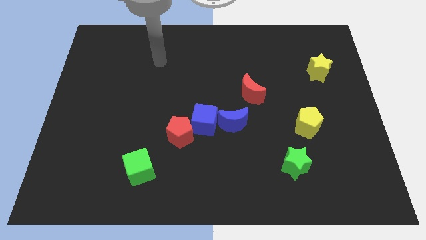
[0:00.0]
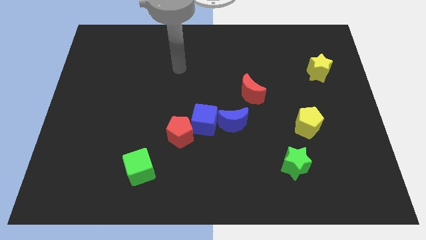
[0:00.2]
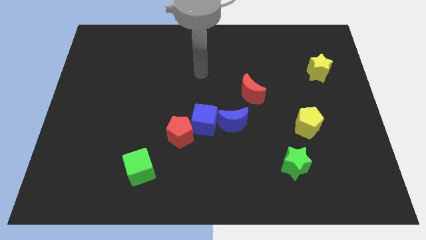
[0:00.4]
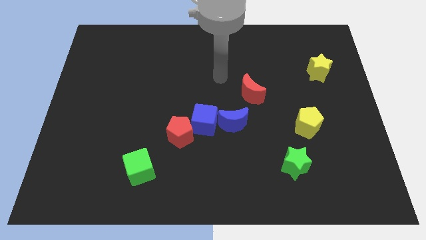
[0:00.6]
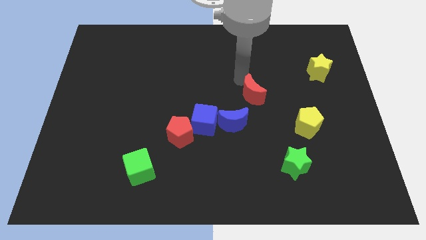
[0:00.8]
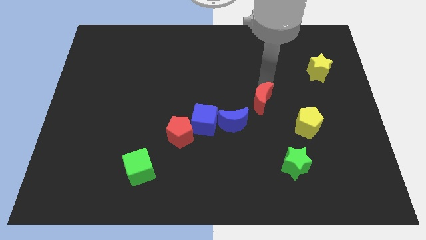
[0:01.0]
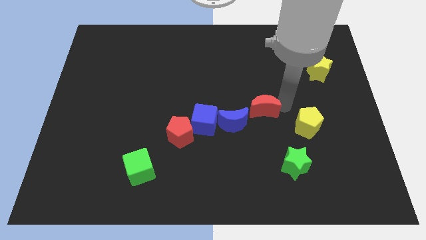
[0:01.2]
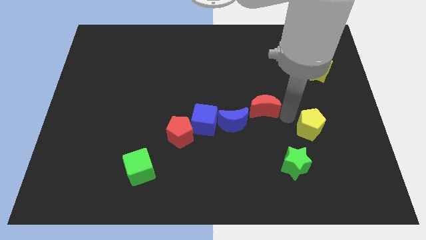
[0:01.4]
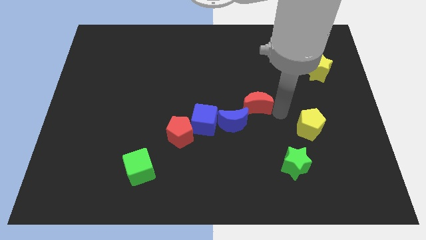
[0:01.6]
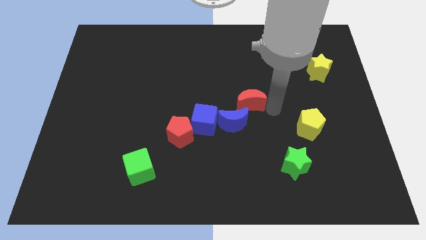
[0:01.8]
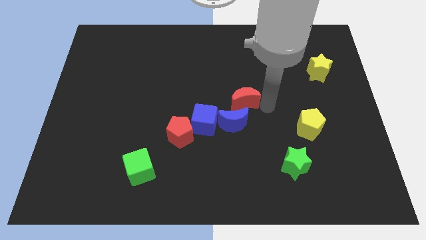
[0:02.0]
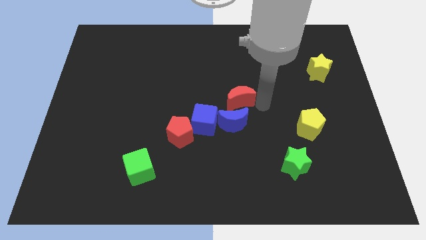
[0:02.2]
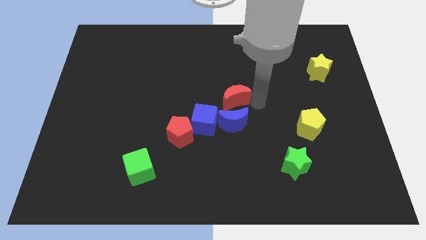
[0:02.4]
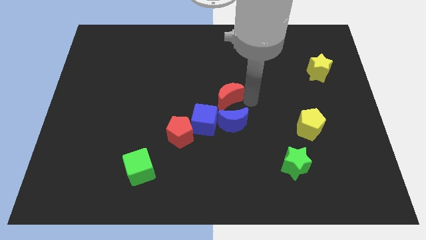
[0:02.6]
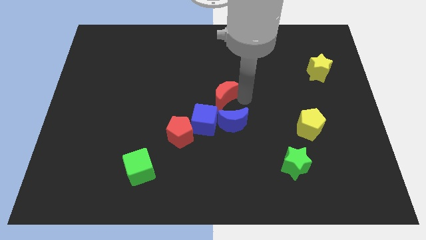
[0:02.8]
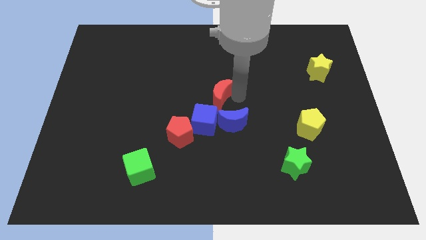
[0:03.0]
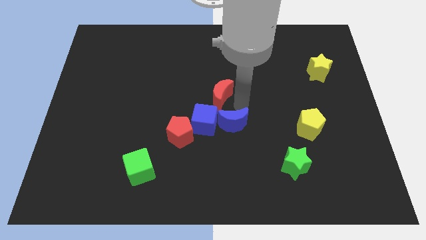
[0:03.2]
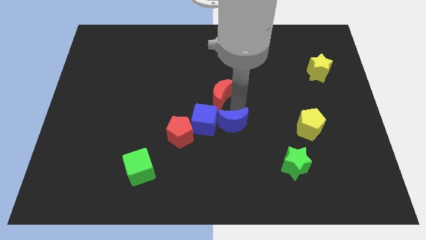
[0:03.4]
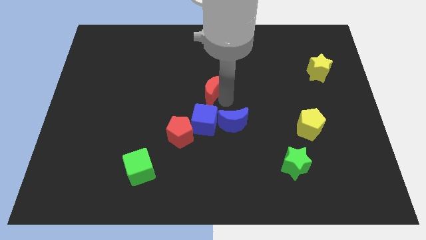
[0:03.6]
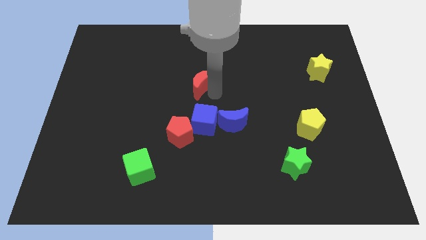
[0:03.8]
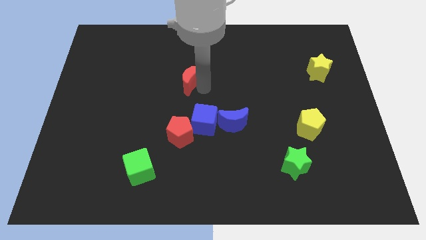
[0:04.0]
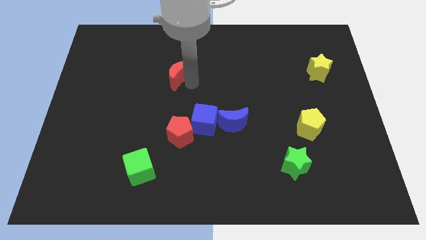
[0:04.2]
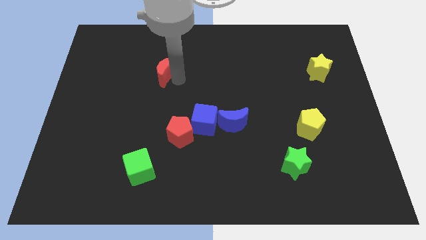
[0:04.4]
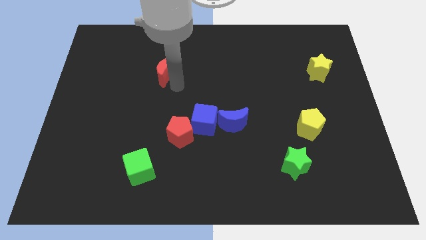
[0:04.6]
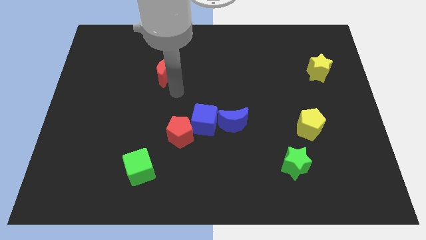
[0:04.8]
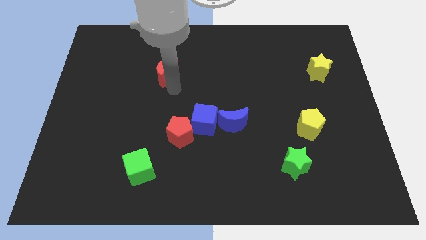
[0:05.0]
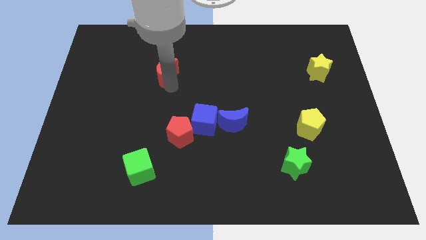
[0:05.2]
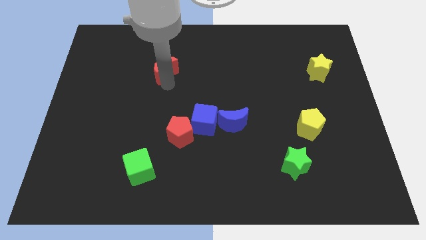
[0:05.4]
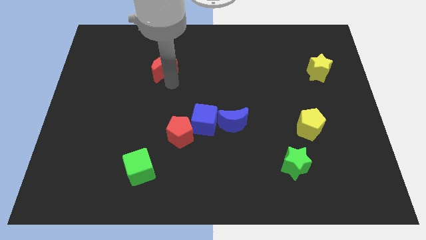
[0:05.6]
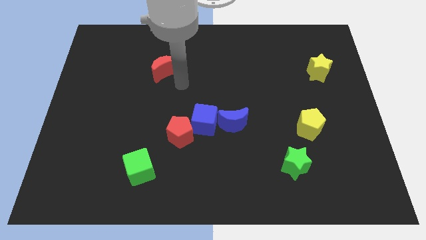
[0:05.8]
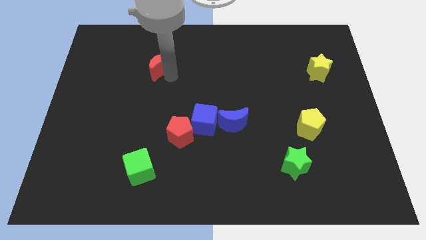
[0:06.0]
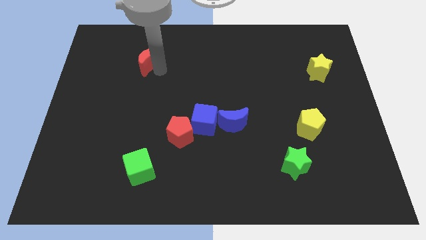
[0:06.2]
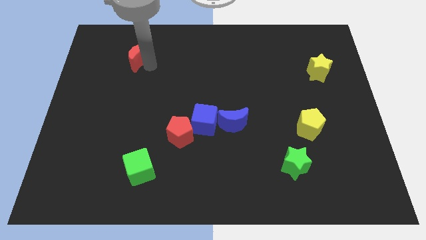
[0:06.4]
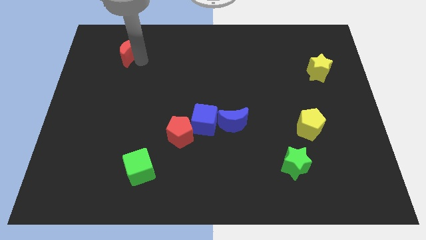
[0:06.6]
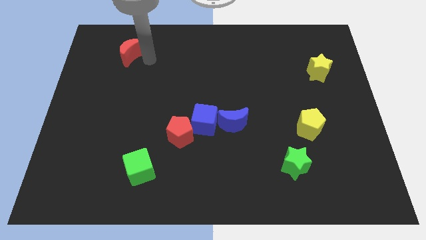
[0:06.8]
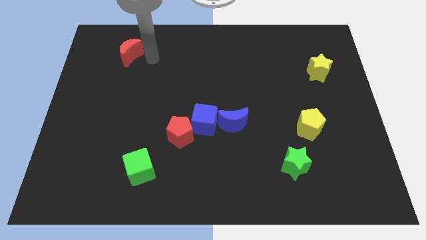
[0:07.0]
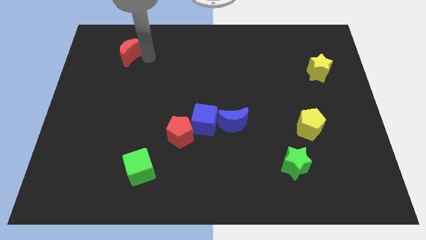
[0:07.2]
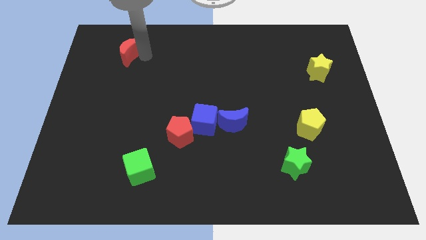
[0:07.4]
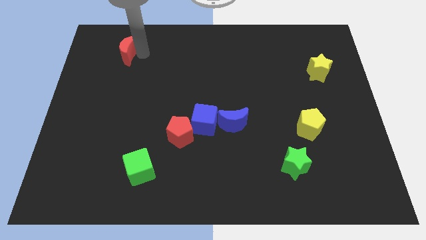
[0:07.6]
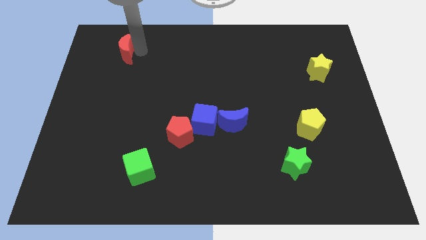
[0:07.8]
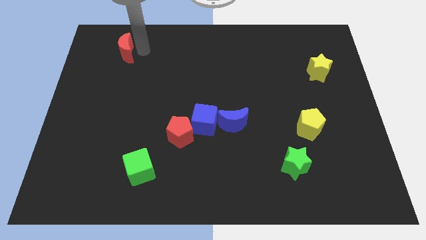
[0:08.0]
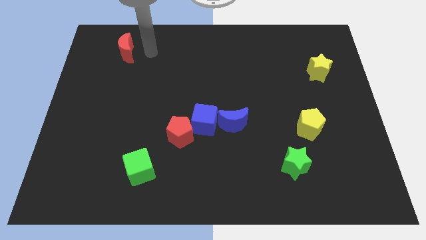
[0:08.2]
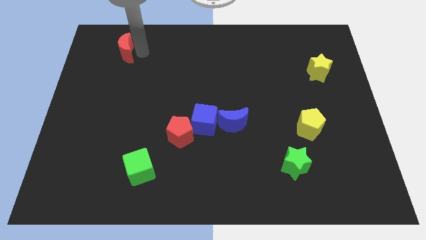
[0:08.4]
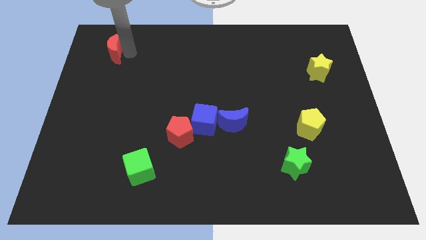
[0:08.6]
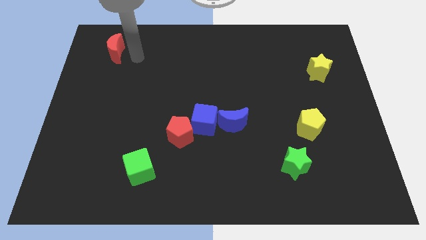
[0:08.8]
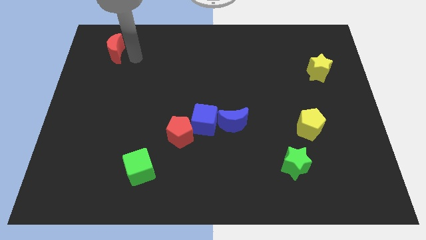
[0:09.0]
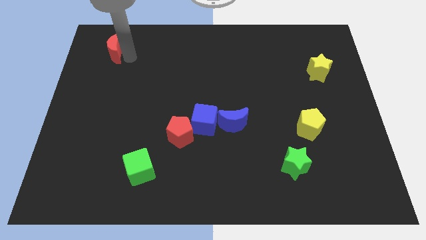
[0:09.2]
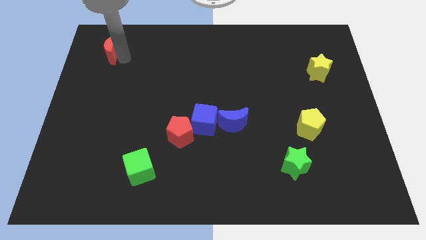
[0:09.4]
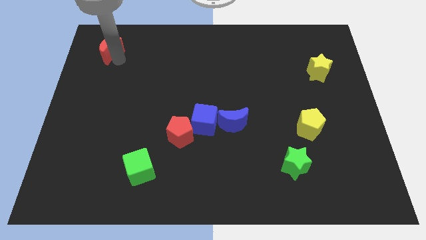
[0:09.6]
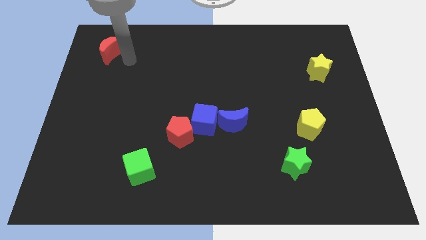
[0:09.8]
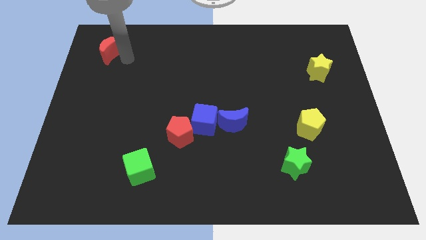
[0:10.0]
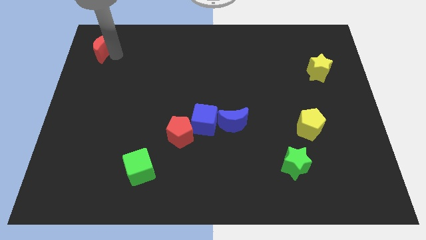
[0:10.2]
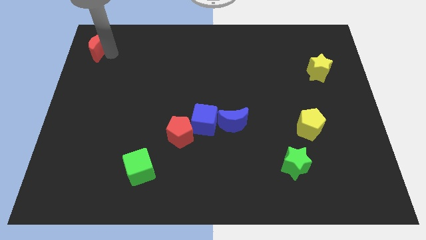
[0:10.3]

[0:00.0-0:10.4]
slide the red moon to the top left of the board

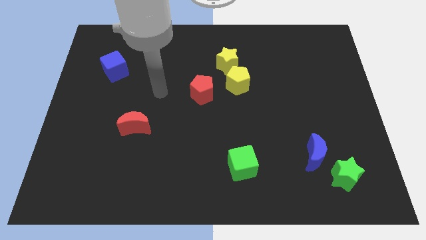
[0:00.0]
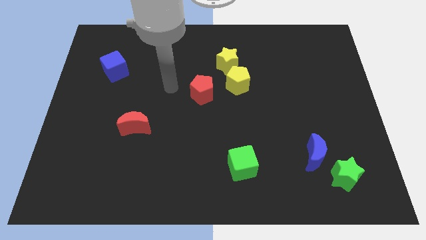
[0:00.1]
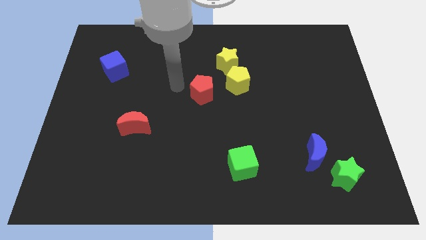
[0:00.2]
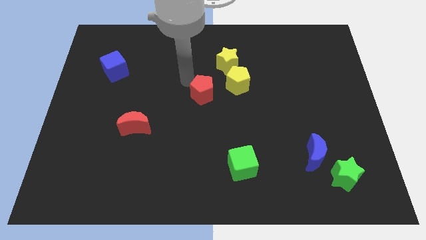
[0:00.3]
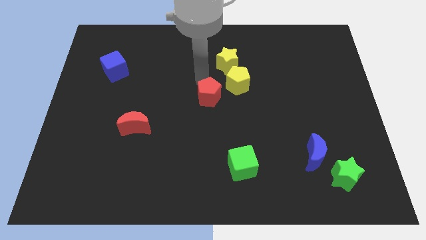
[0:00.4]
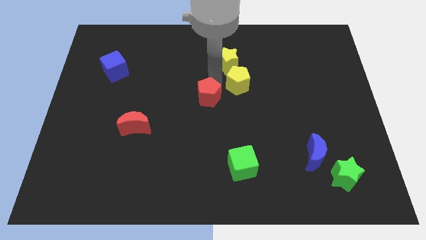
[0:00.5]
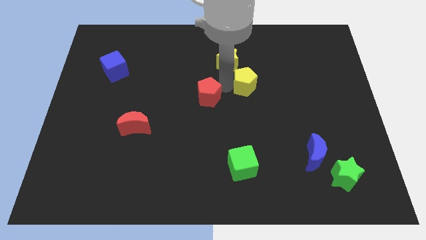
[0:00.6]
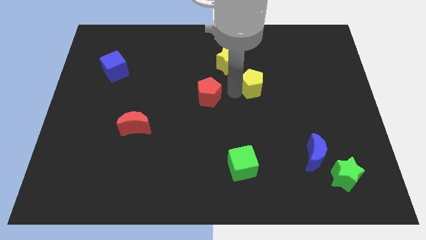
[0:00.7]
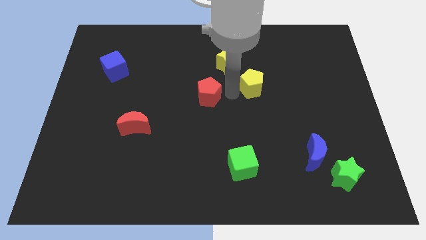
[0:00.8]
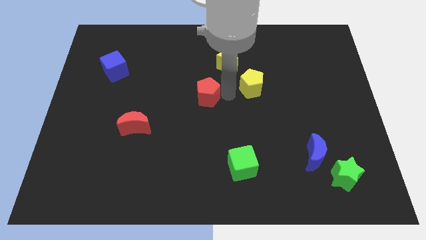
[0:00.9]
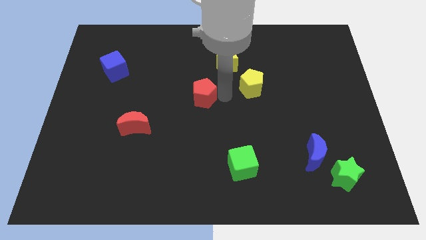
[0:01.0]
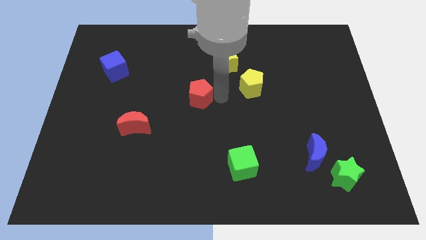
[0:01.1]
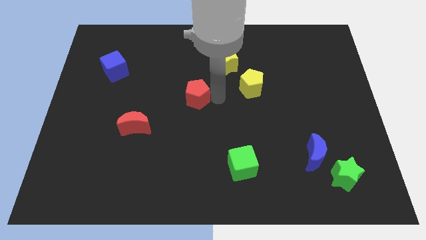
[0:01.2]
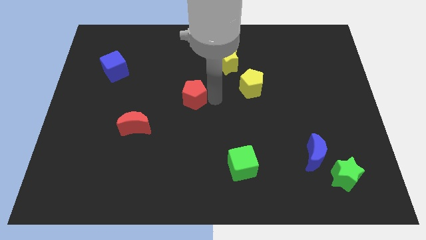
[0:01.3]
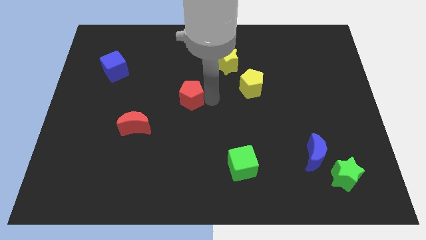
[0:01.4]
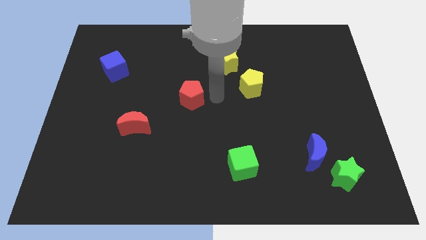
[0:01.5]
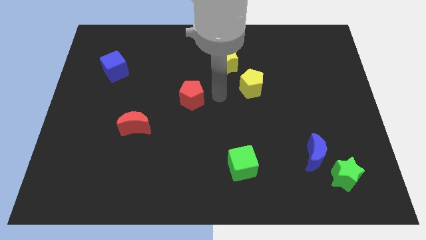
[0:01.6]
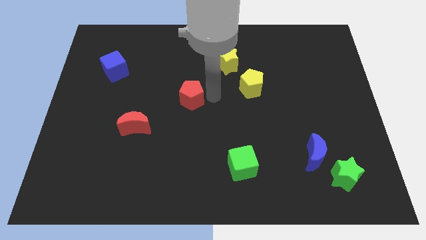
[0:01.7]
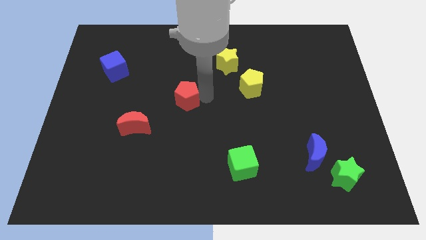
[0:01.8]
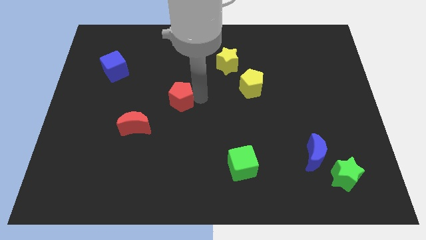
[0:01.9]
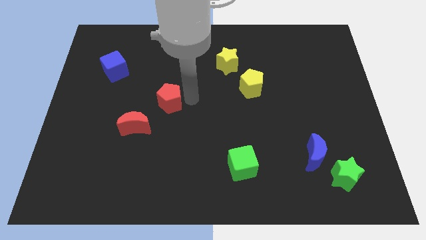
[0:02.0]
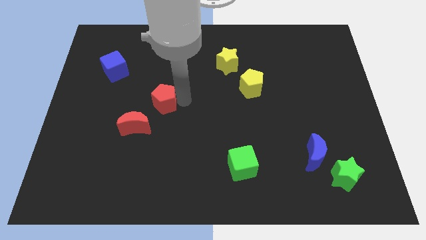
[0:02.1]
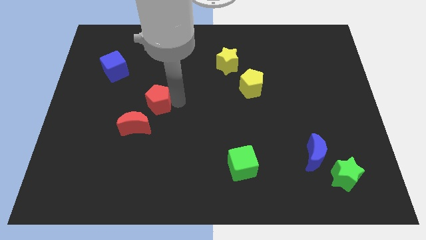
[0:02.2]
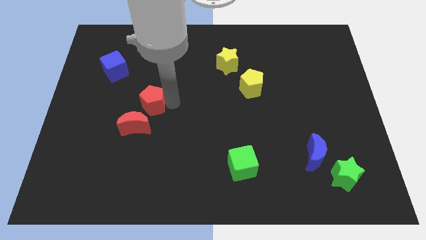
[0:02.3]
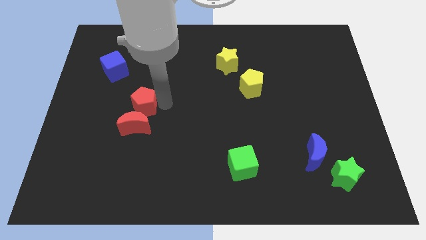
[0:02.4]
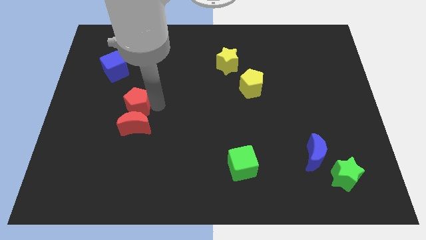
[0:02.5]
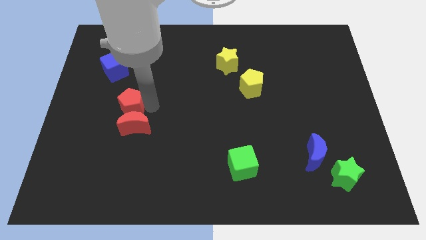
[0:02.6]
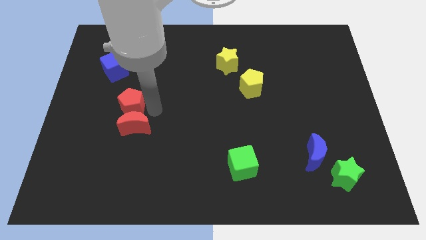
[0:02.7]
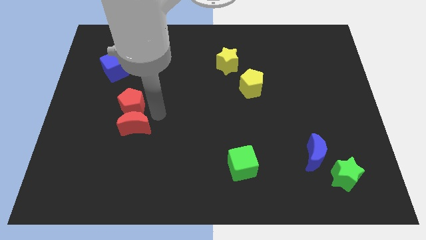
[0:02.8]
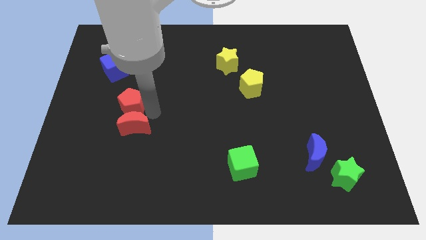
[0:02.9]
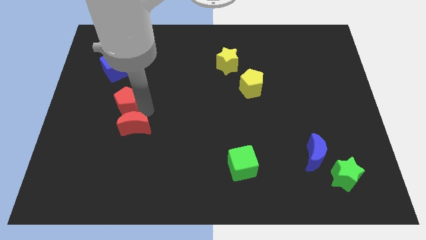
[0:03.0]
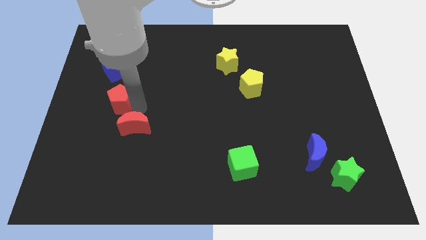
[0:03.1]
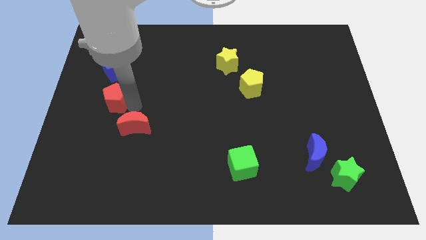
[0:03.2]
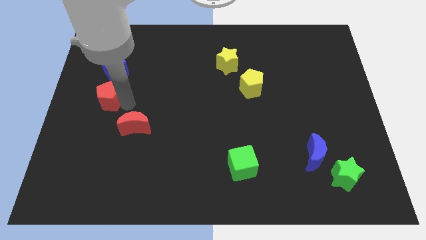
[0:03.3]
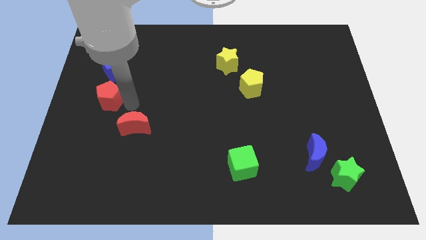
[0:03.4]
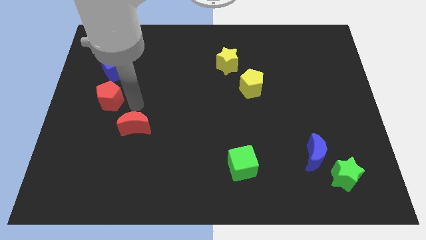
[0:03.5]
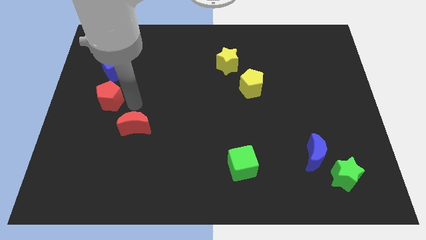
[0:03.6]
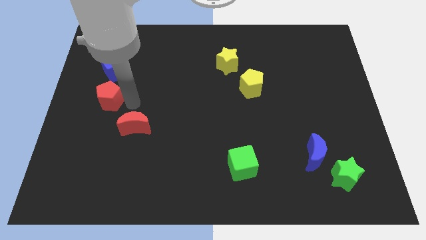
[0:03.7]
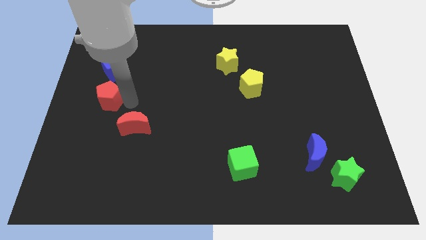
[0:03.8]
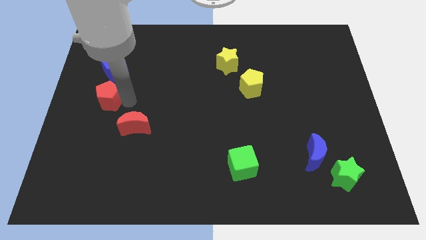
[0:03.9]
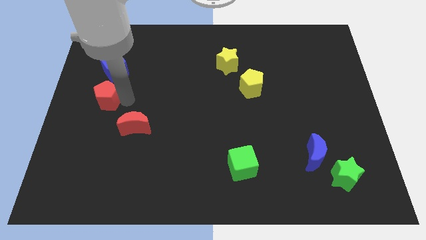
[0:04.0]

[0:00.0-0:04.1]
put the red pentagon to the left side of the board
